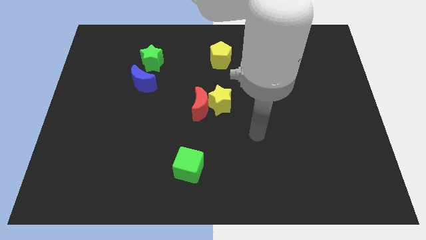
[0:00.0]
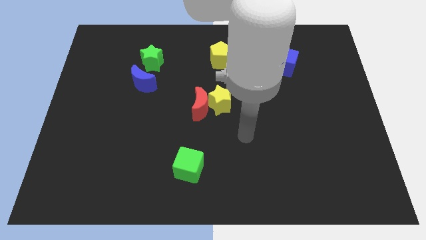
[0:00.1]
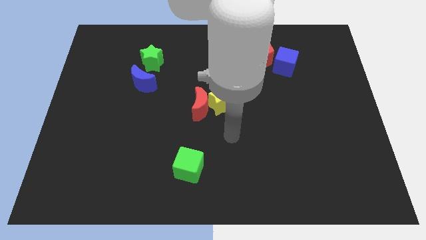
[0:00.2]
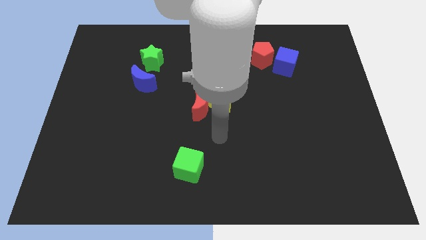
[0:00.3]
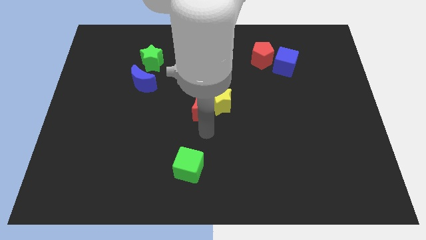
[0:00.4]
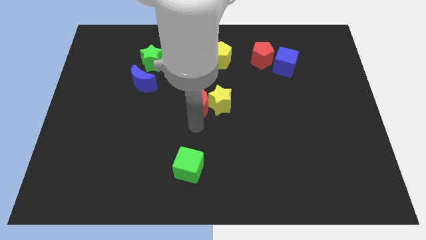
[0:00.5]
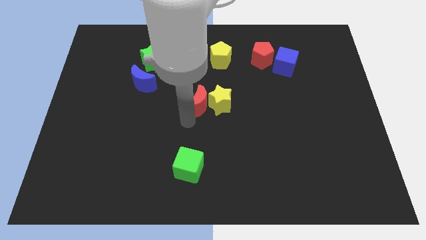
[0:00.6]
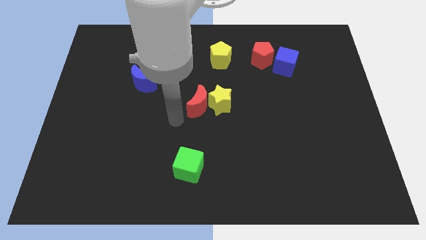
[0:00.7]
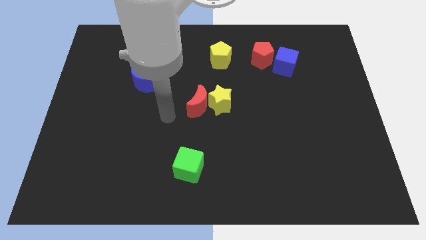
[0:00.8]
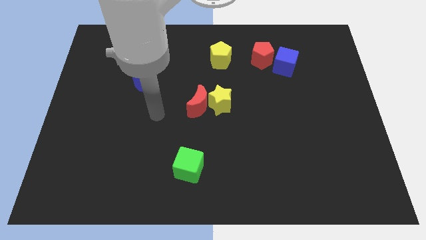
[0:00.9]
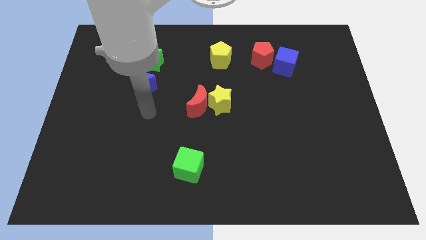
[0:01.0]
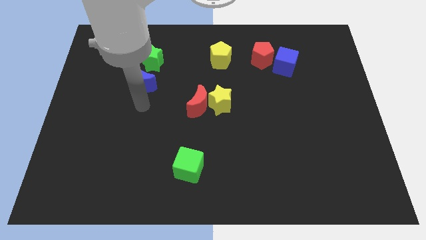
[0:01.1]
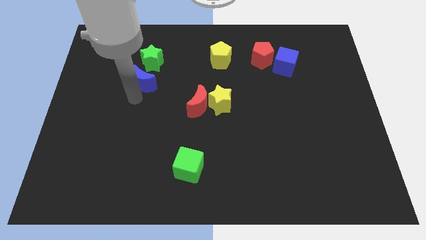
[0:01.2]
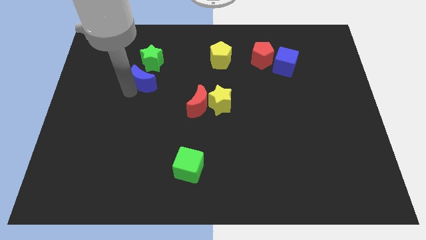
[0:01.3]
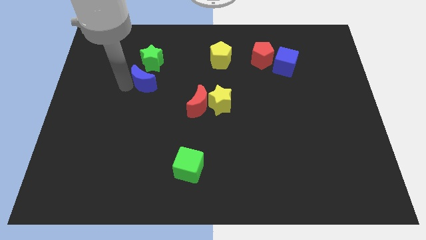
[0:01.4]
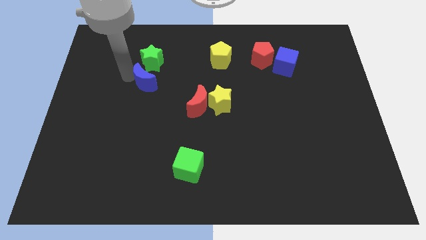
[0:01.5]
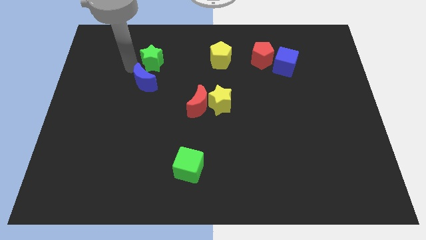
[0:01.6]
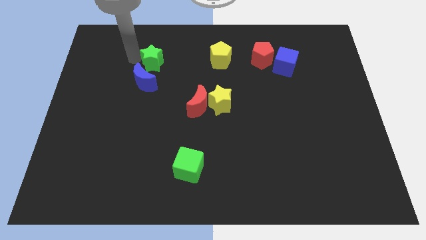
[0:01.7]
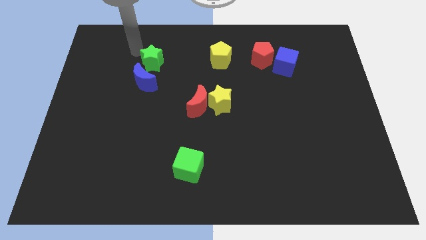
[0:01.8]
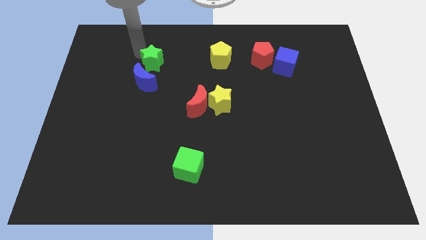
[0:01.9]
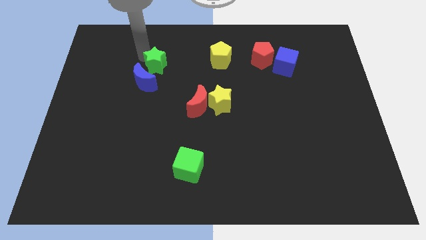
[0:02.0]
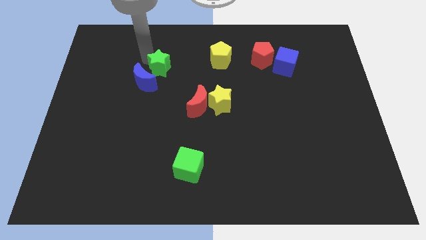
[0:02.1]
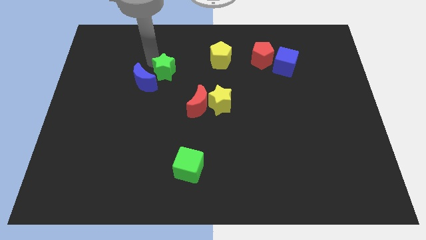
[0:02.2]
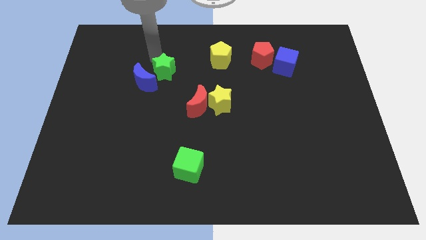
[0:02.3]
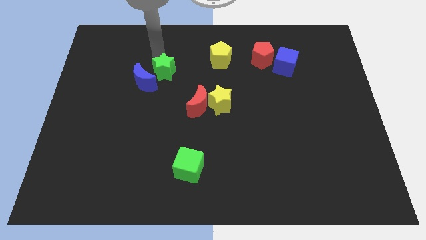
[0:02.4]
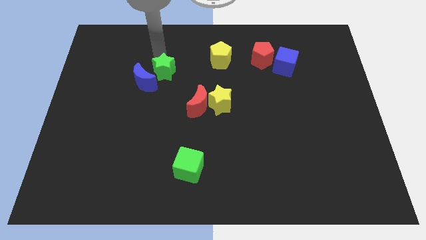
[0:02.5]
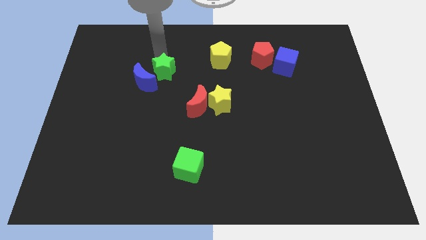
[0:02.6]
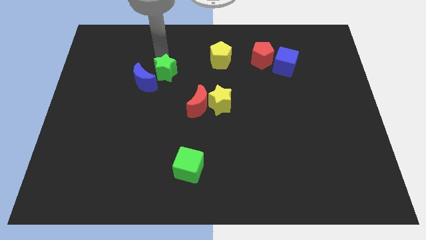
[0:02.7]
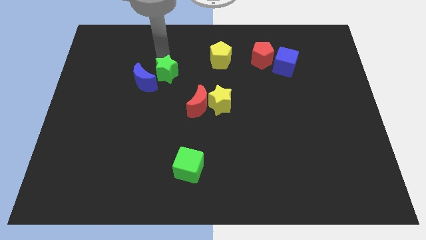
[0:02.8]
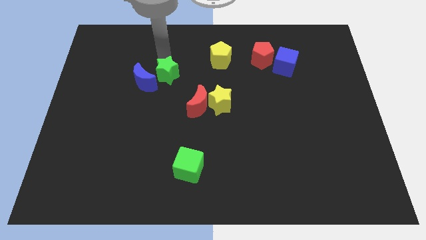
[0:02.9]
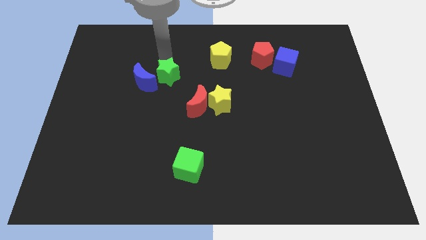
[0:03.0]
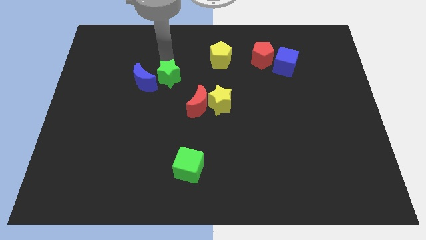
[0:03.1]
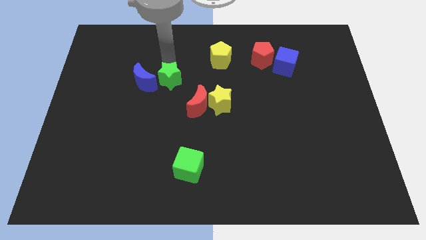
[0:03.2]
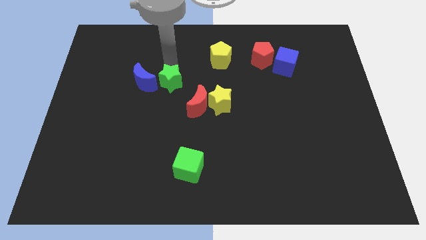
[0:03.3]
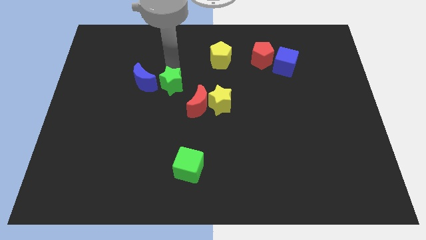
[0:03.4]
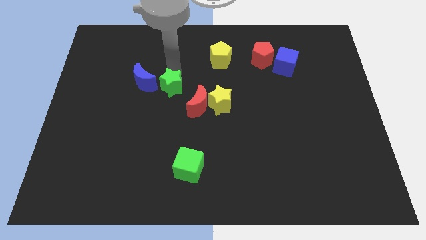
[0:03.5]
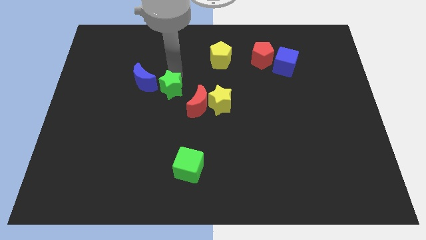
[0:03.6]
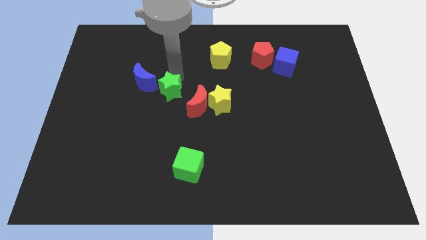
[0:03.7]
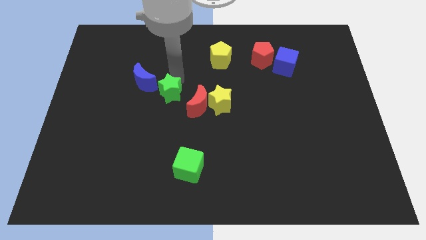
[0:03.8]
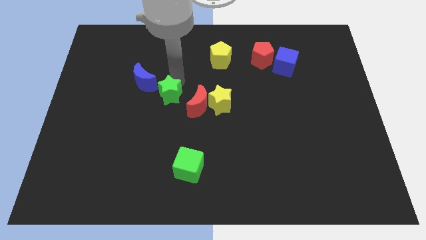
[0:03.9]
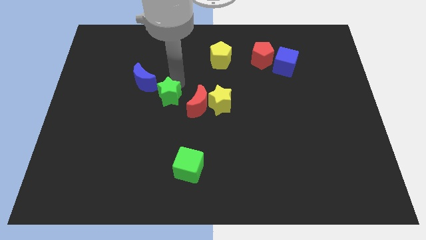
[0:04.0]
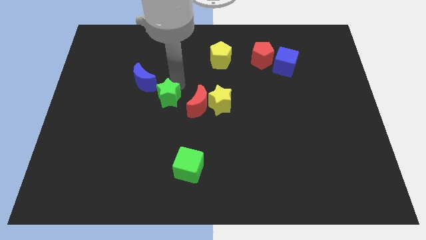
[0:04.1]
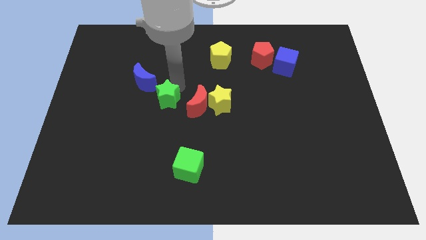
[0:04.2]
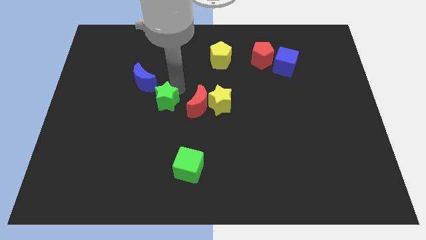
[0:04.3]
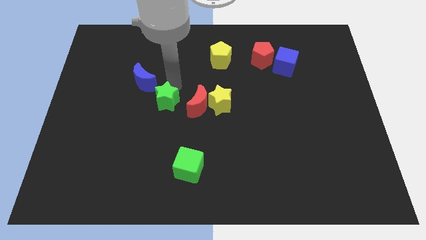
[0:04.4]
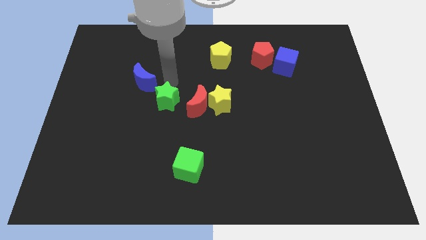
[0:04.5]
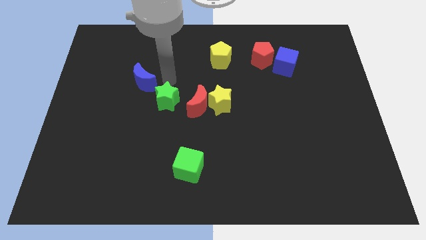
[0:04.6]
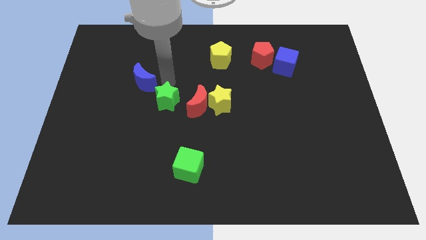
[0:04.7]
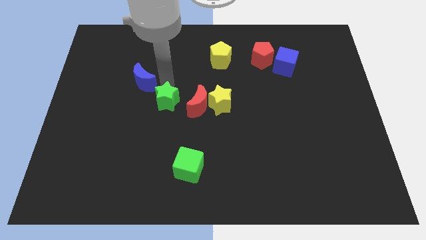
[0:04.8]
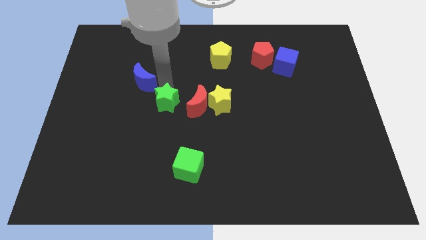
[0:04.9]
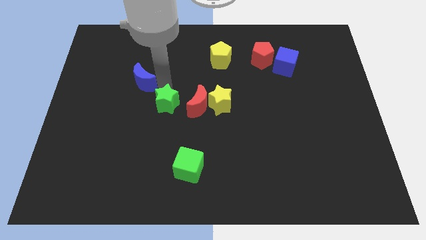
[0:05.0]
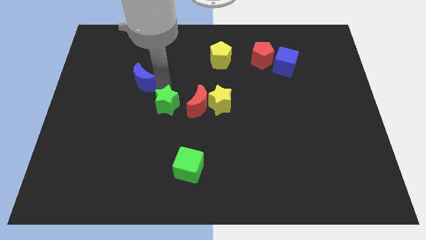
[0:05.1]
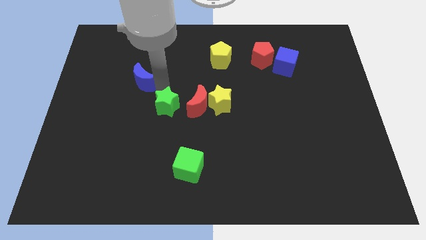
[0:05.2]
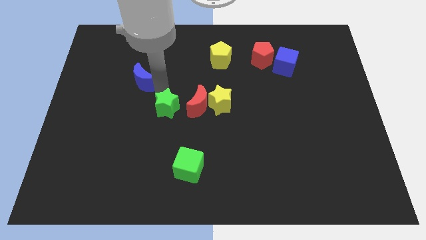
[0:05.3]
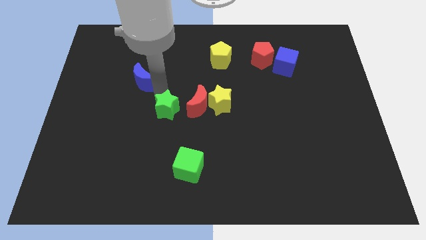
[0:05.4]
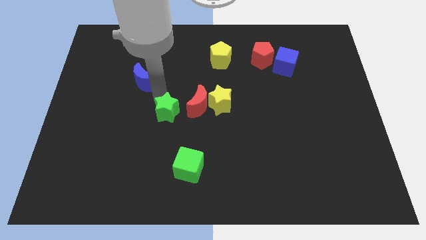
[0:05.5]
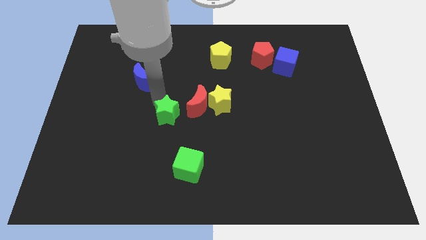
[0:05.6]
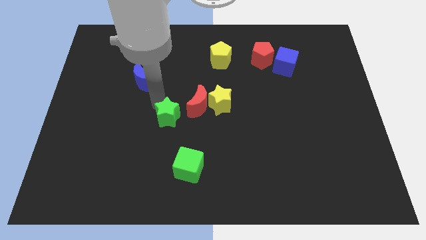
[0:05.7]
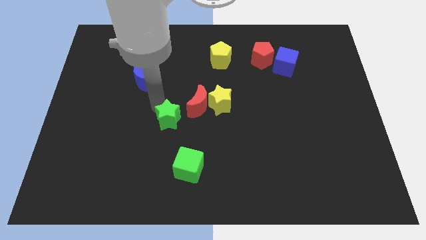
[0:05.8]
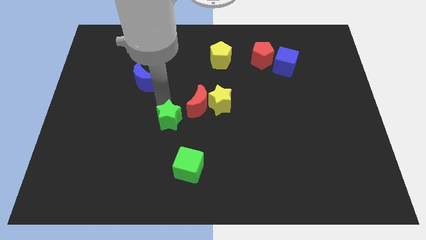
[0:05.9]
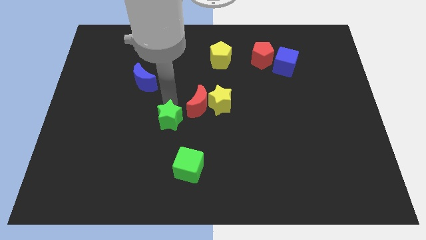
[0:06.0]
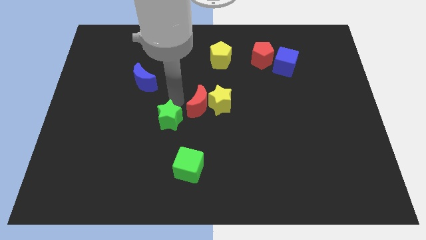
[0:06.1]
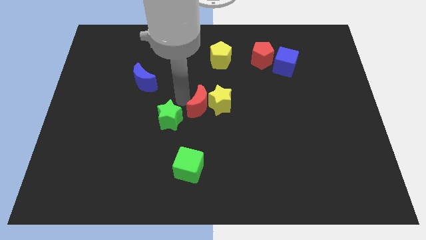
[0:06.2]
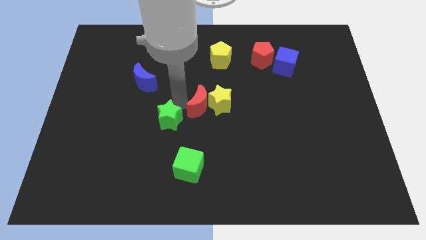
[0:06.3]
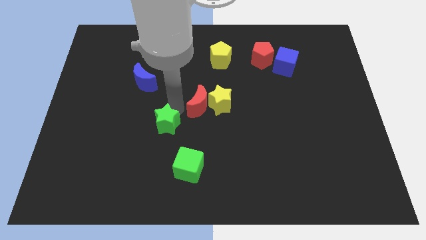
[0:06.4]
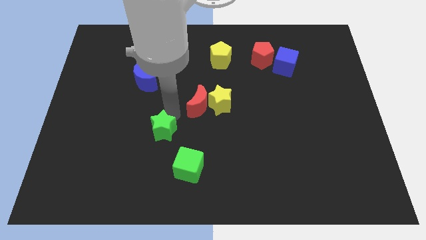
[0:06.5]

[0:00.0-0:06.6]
slide the green star down

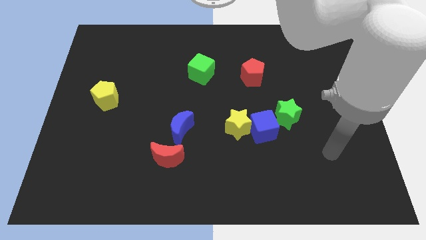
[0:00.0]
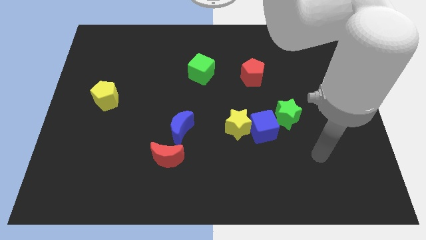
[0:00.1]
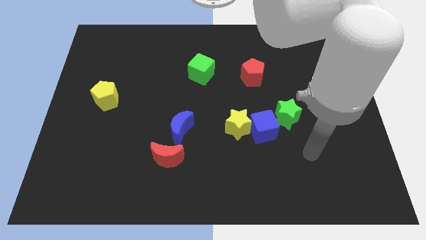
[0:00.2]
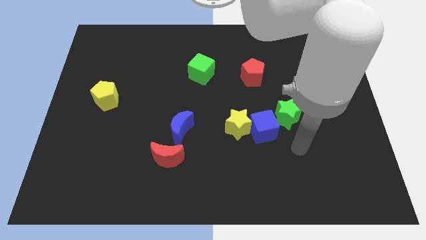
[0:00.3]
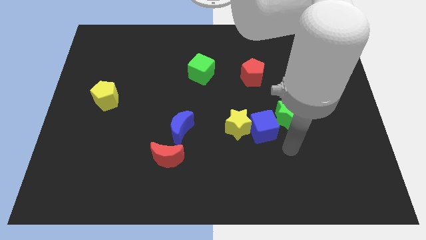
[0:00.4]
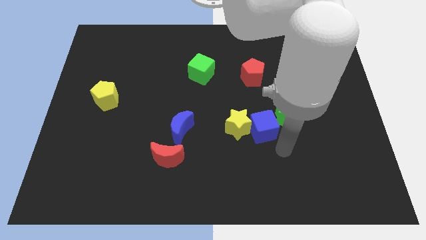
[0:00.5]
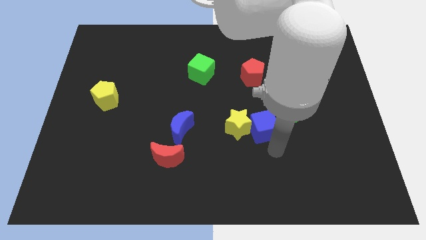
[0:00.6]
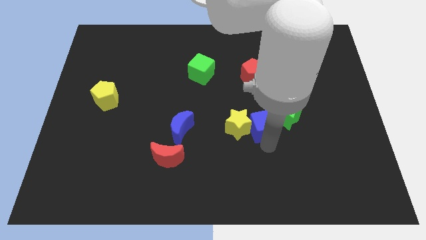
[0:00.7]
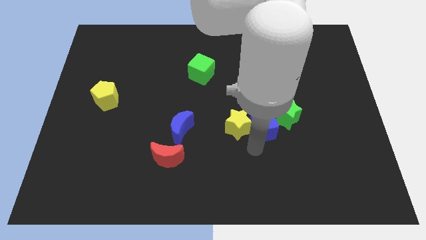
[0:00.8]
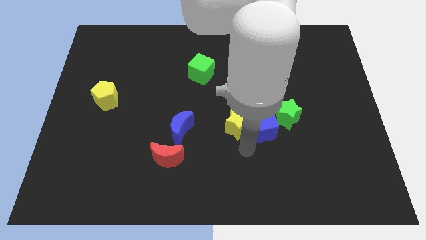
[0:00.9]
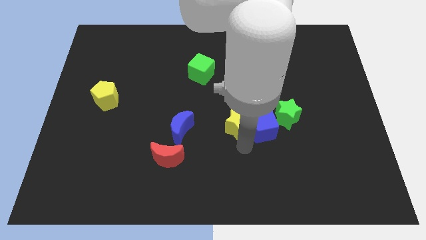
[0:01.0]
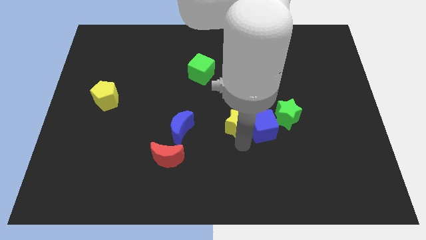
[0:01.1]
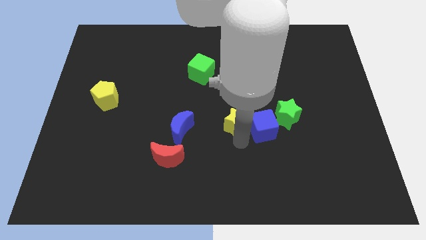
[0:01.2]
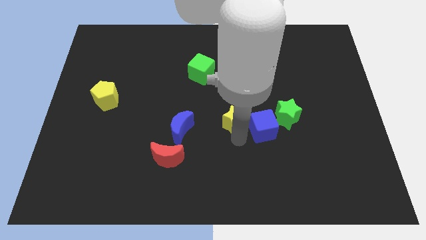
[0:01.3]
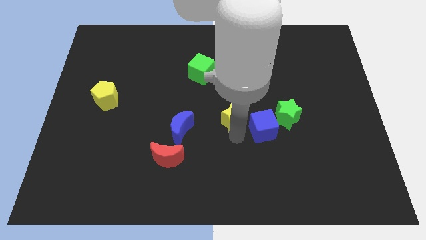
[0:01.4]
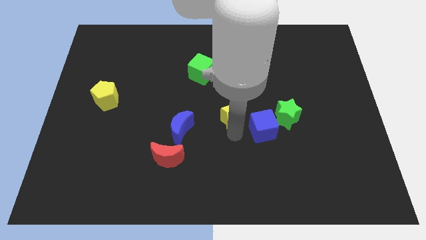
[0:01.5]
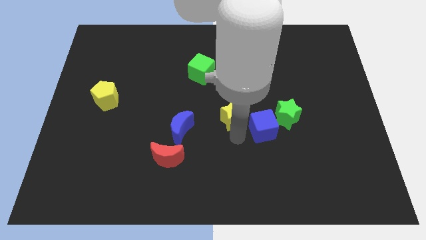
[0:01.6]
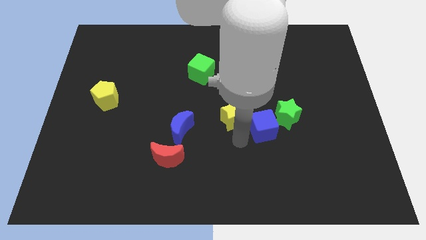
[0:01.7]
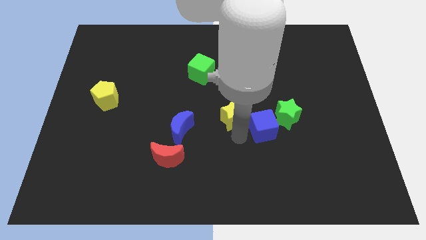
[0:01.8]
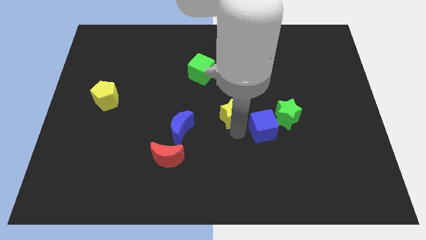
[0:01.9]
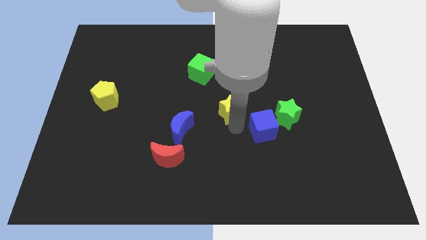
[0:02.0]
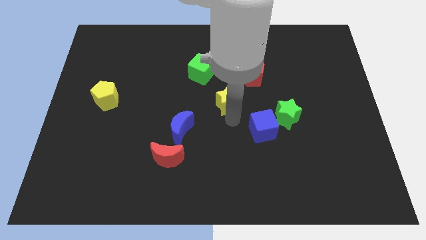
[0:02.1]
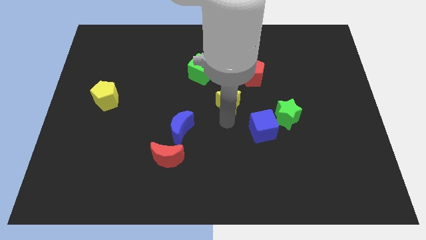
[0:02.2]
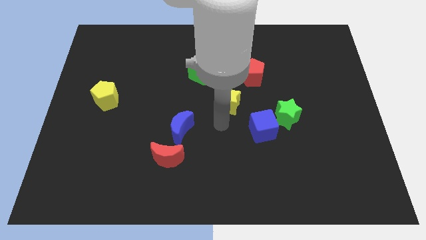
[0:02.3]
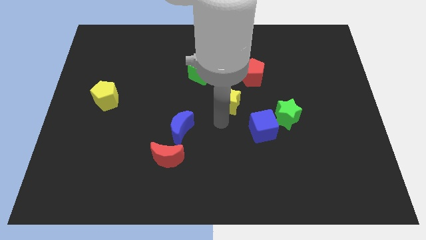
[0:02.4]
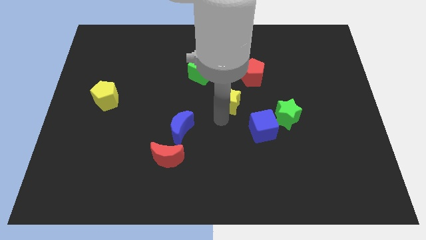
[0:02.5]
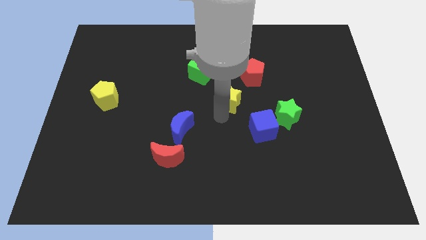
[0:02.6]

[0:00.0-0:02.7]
move the yellow star slightly upwards
